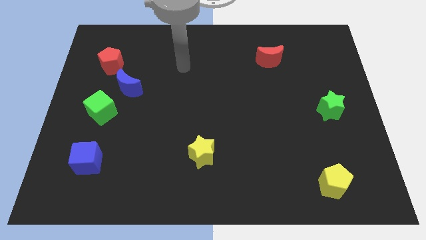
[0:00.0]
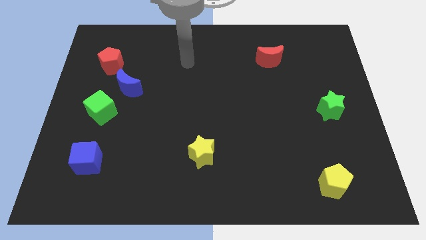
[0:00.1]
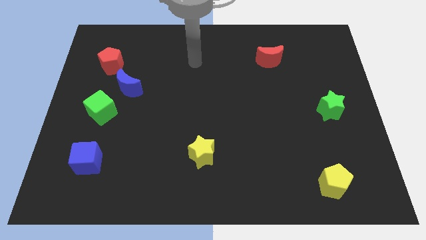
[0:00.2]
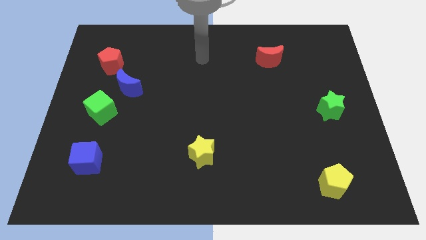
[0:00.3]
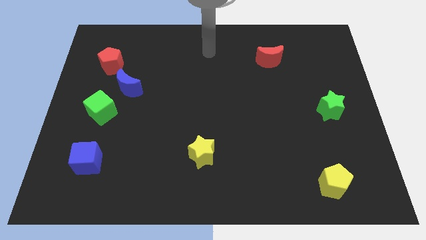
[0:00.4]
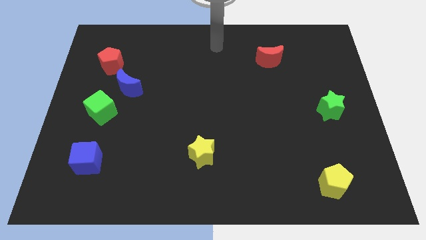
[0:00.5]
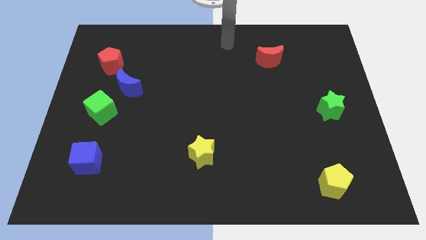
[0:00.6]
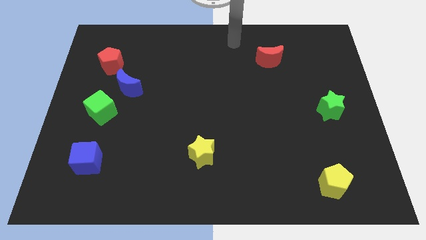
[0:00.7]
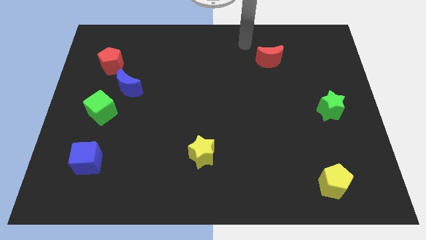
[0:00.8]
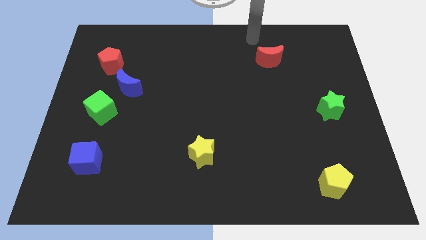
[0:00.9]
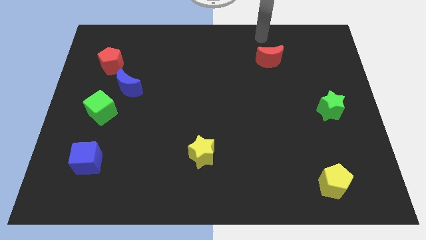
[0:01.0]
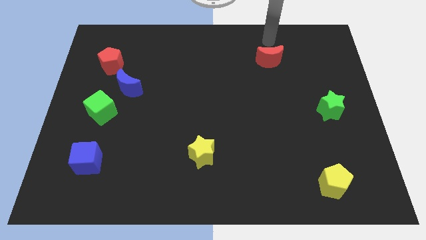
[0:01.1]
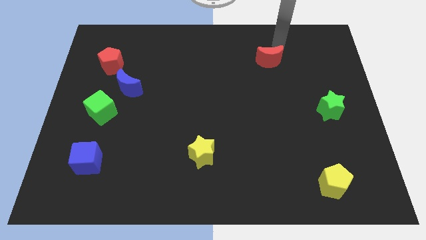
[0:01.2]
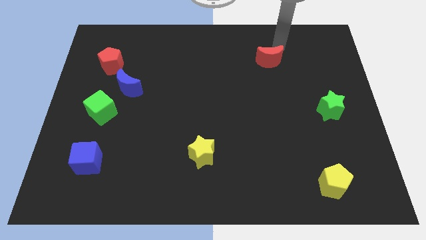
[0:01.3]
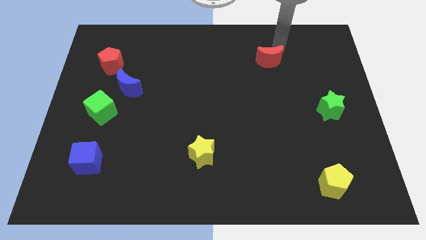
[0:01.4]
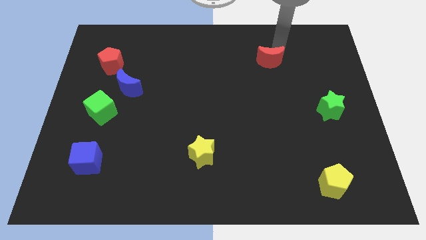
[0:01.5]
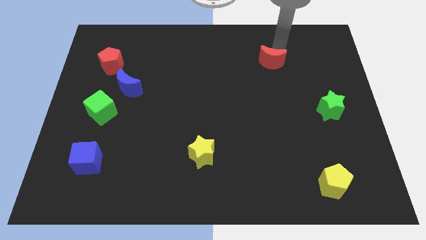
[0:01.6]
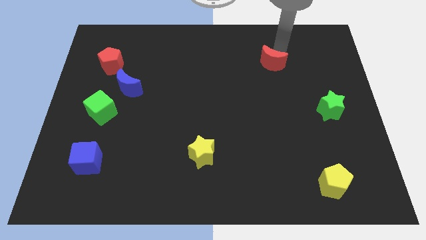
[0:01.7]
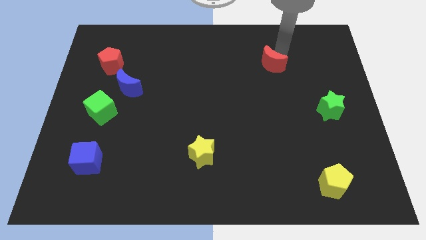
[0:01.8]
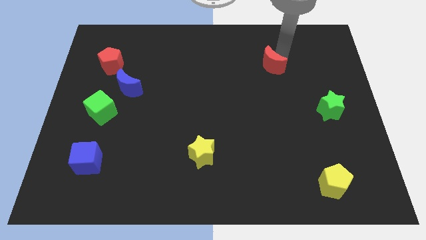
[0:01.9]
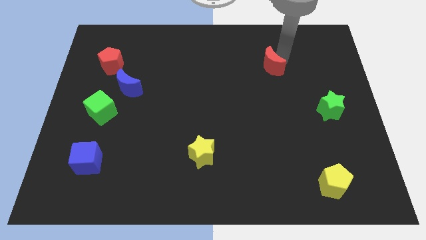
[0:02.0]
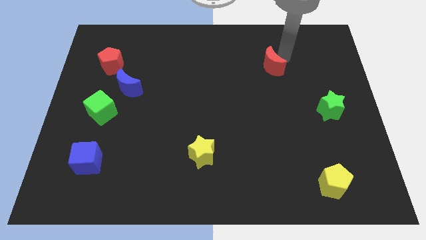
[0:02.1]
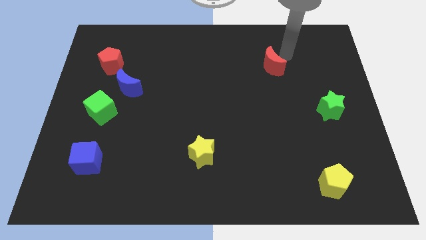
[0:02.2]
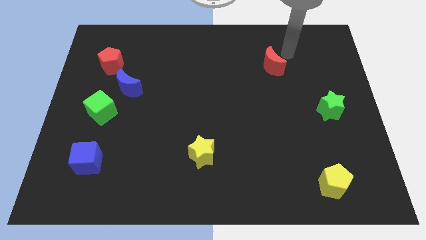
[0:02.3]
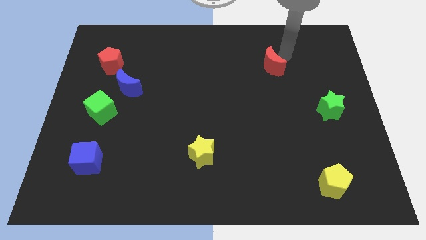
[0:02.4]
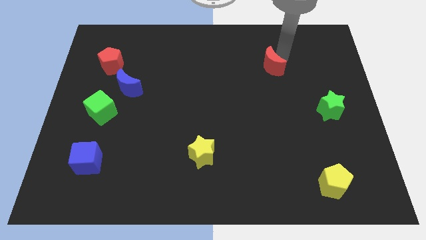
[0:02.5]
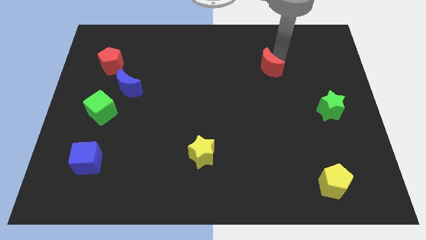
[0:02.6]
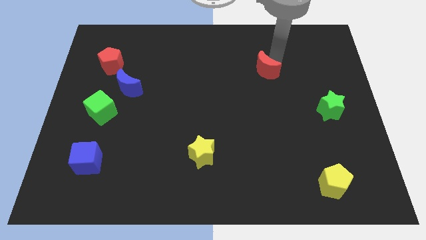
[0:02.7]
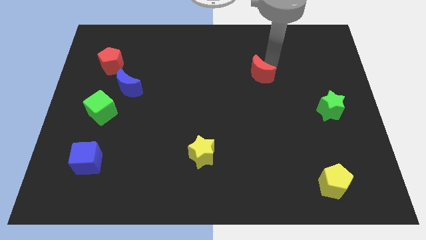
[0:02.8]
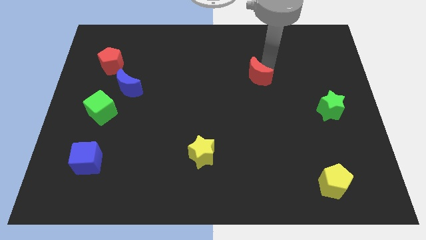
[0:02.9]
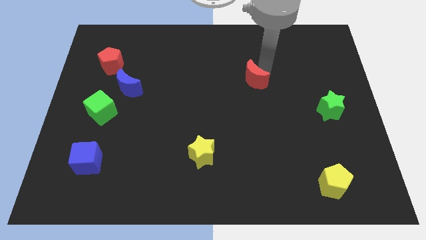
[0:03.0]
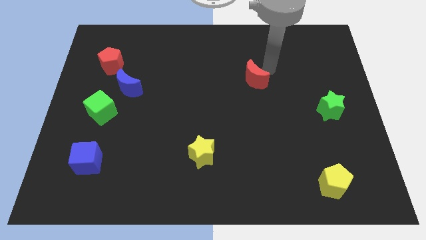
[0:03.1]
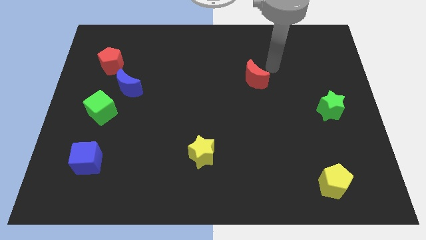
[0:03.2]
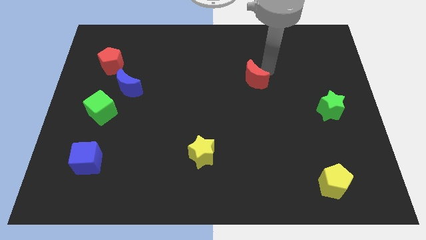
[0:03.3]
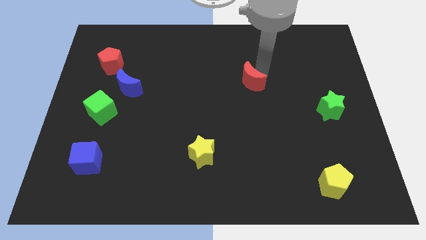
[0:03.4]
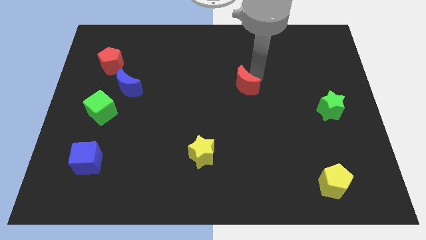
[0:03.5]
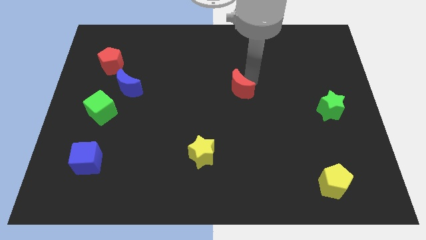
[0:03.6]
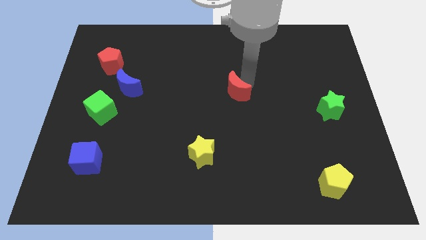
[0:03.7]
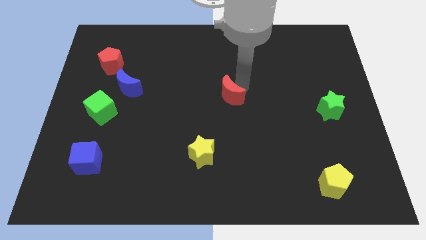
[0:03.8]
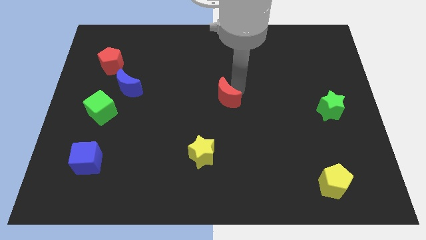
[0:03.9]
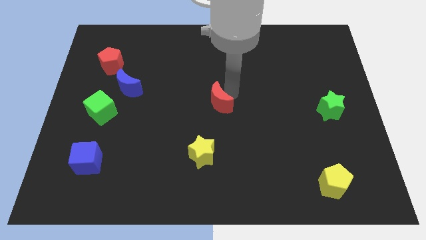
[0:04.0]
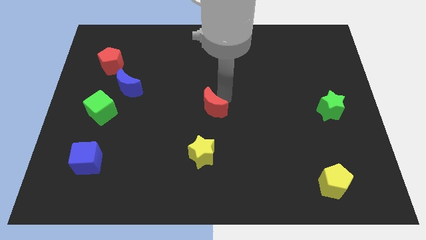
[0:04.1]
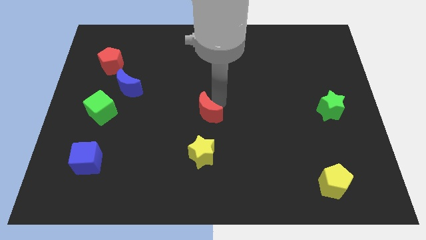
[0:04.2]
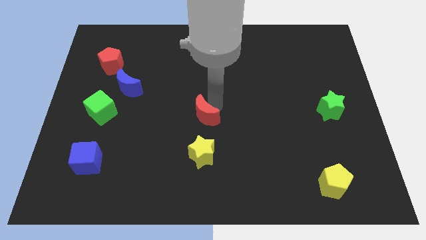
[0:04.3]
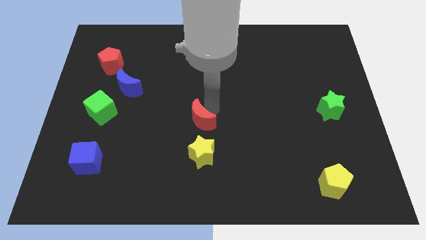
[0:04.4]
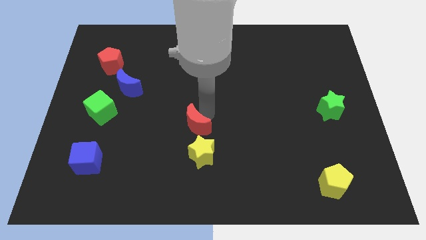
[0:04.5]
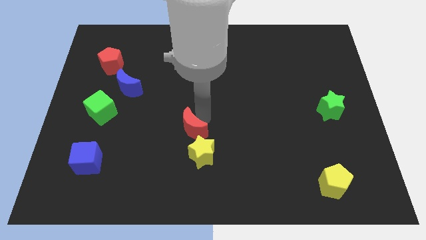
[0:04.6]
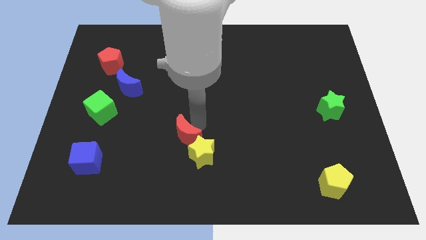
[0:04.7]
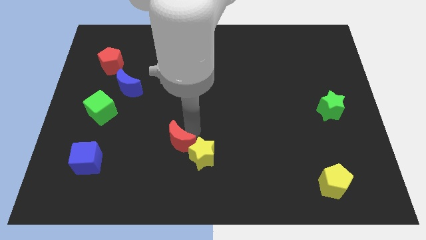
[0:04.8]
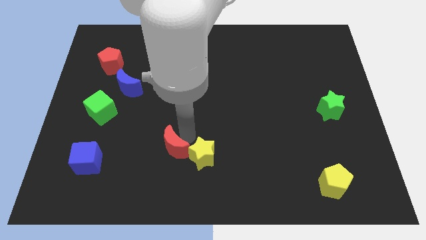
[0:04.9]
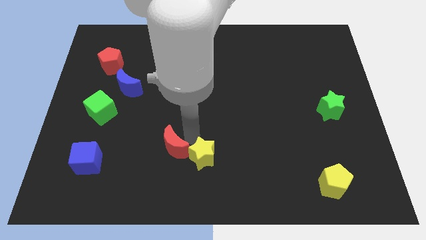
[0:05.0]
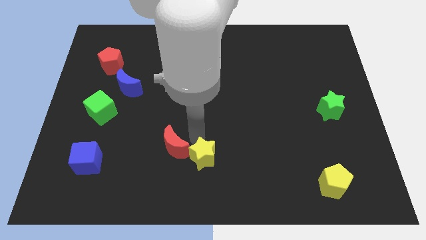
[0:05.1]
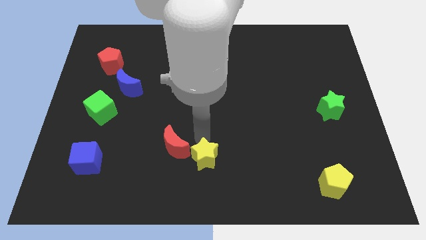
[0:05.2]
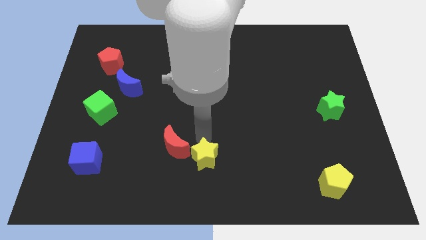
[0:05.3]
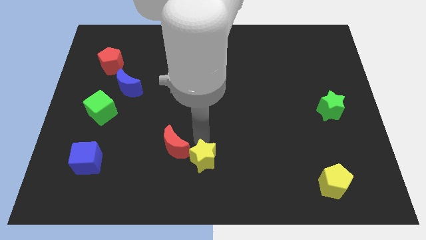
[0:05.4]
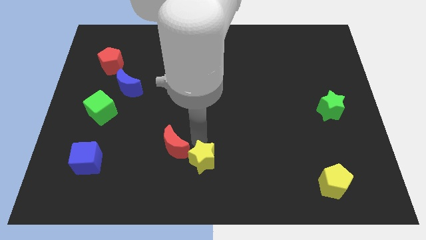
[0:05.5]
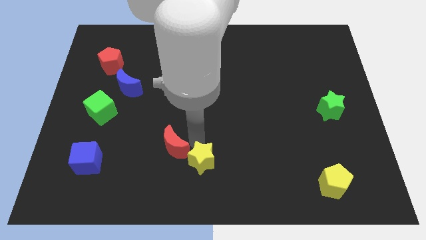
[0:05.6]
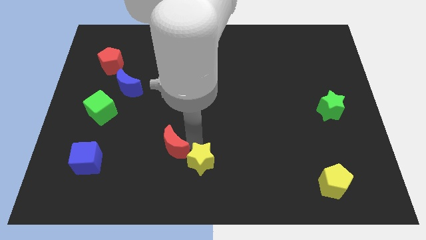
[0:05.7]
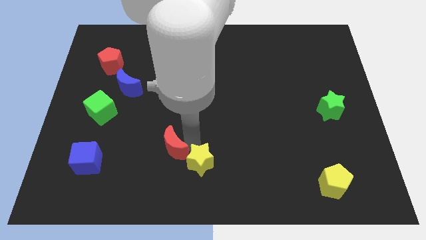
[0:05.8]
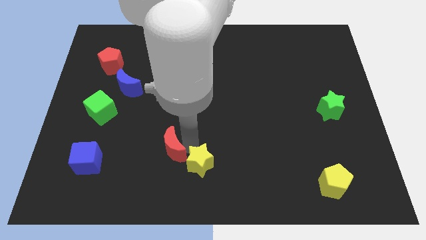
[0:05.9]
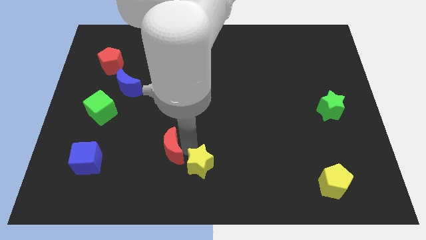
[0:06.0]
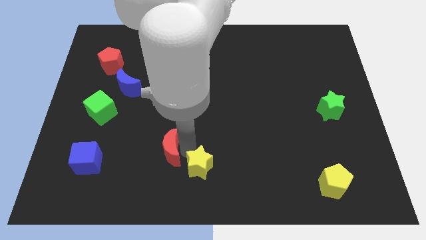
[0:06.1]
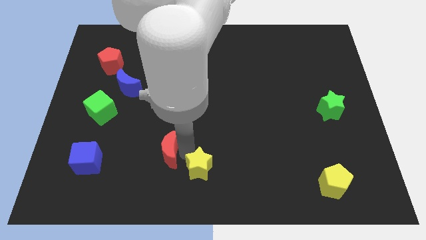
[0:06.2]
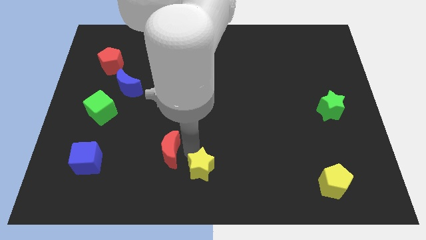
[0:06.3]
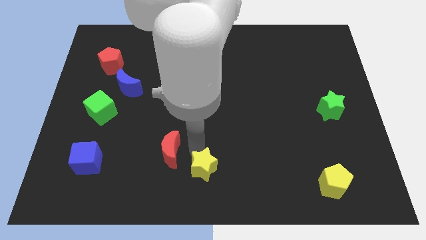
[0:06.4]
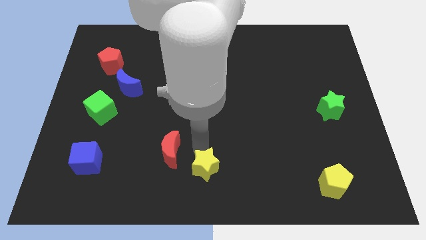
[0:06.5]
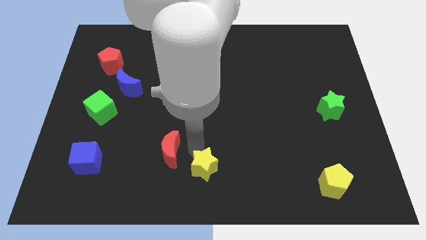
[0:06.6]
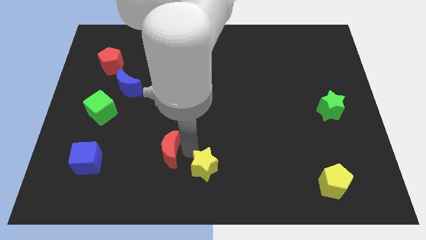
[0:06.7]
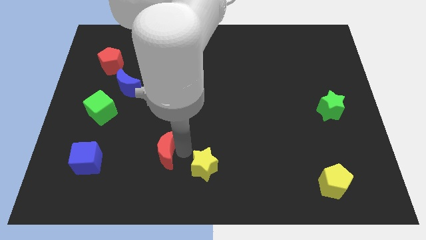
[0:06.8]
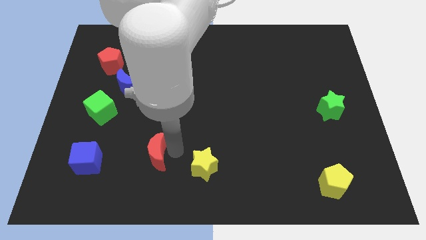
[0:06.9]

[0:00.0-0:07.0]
put the red moon to the right side of the blue cube

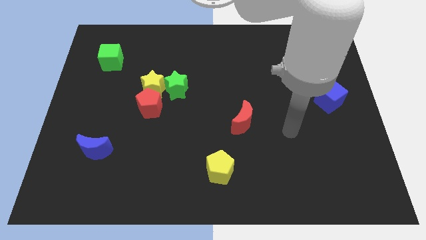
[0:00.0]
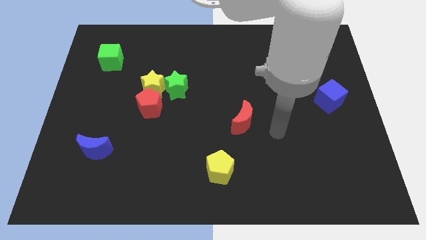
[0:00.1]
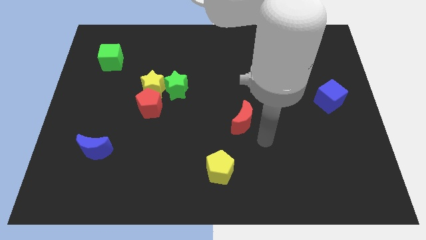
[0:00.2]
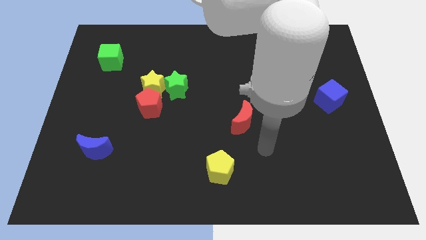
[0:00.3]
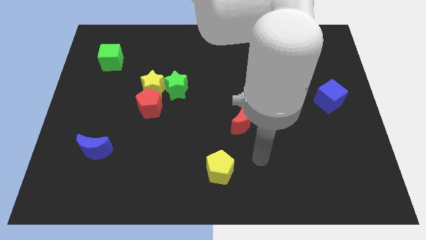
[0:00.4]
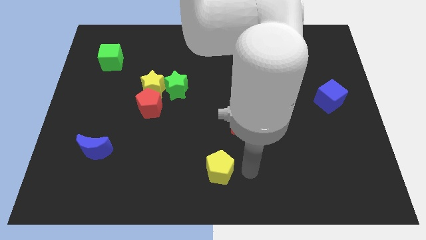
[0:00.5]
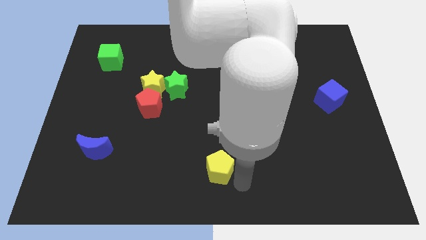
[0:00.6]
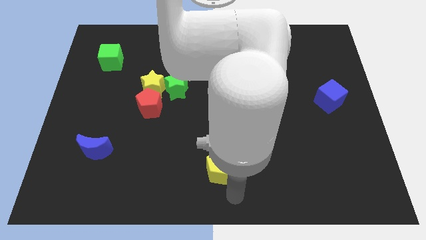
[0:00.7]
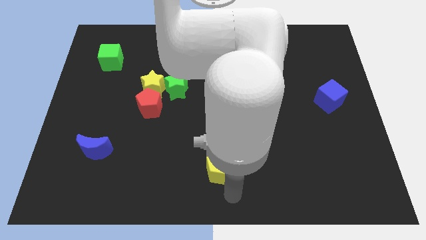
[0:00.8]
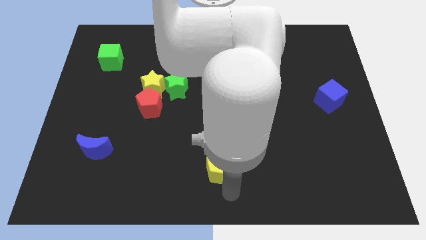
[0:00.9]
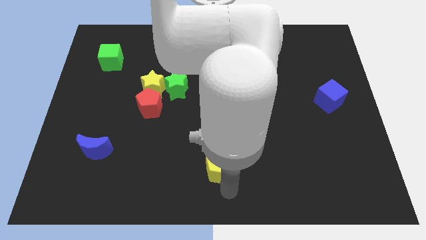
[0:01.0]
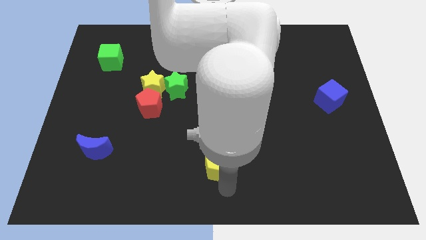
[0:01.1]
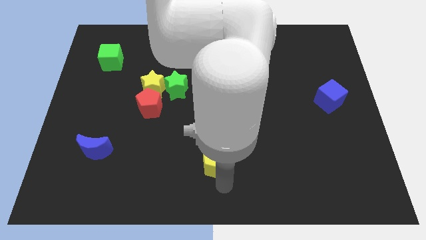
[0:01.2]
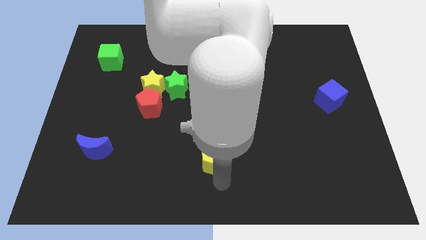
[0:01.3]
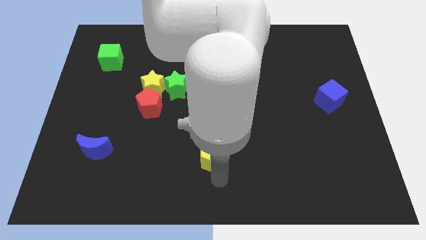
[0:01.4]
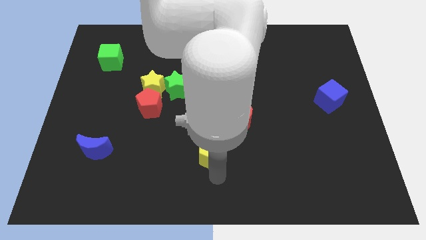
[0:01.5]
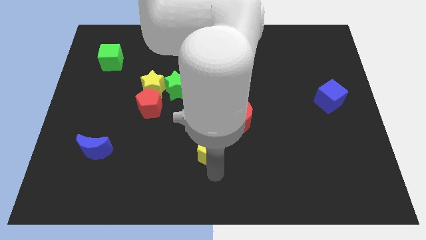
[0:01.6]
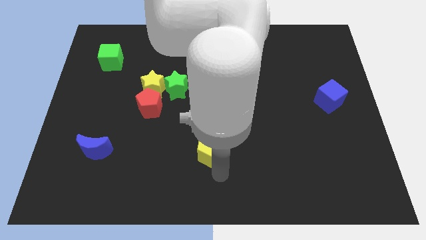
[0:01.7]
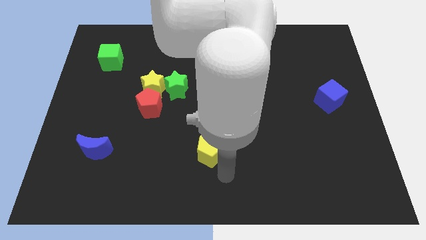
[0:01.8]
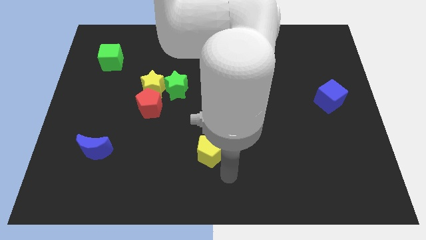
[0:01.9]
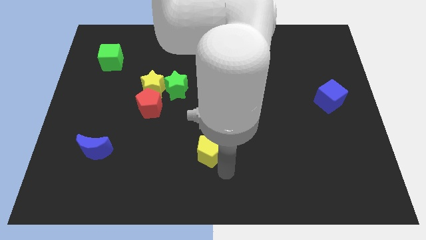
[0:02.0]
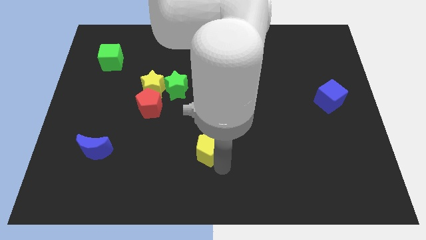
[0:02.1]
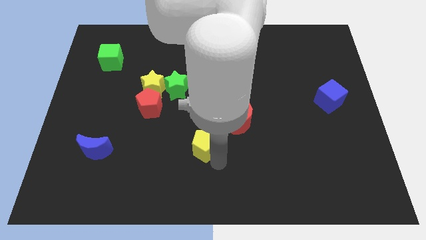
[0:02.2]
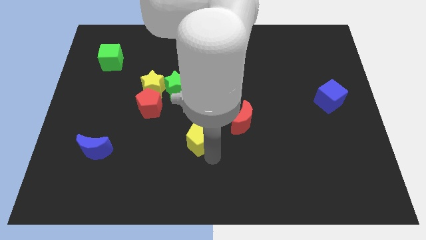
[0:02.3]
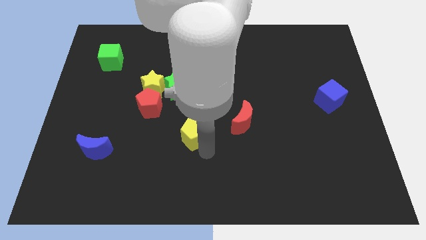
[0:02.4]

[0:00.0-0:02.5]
put the yellow pentagon to the left of the red moon
